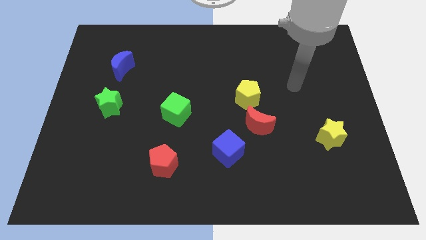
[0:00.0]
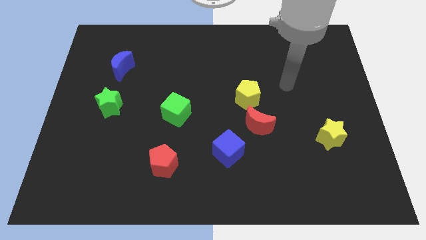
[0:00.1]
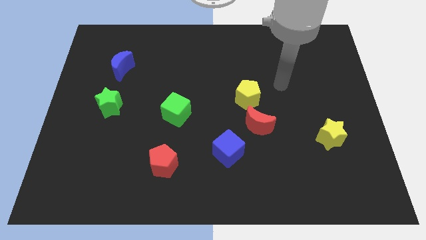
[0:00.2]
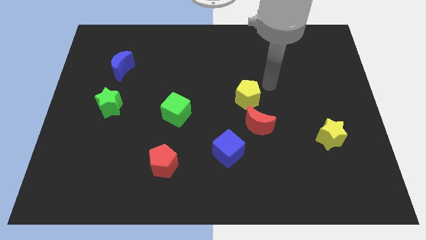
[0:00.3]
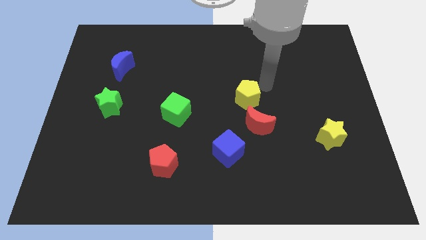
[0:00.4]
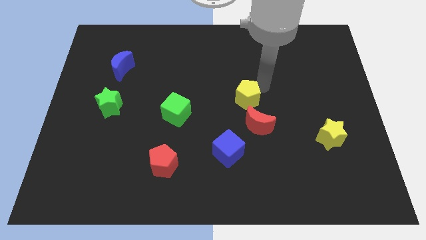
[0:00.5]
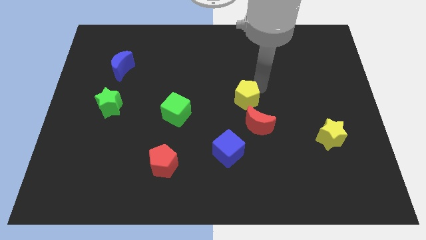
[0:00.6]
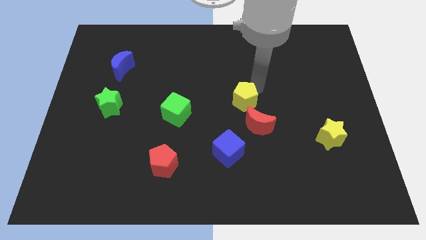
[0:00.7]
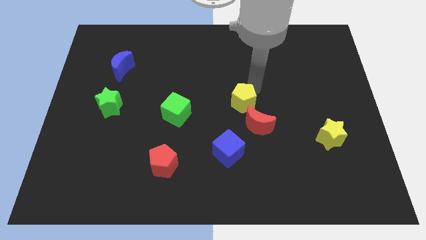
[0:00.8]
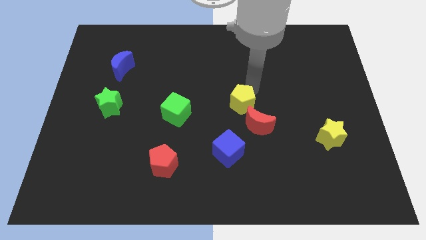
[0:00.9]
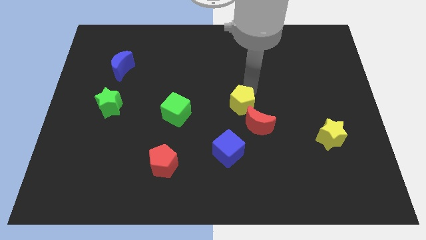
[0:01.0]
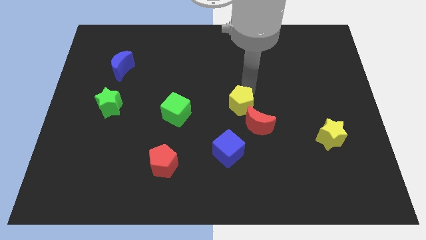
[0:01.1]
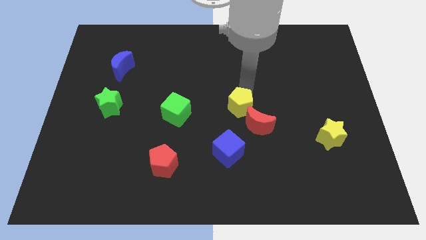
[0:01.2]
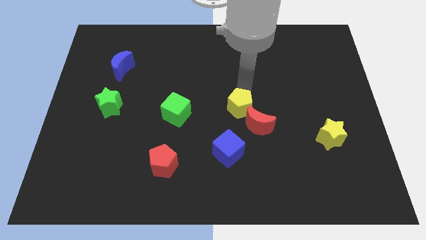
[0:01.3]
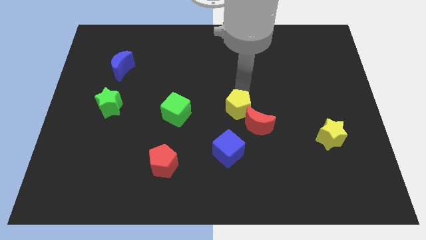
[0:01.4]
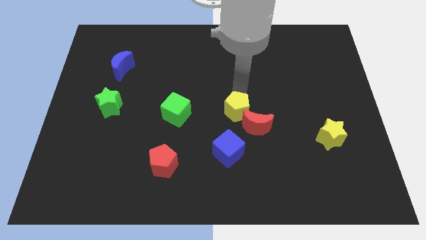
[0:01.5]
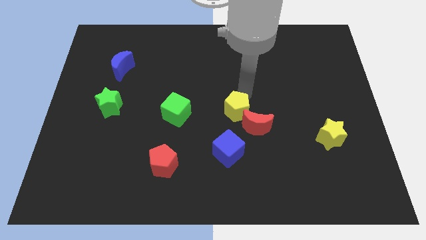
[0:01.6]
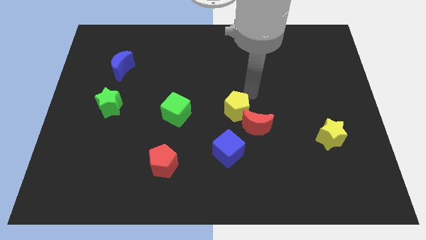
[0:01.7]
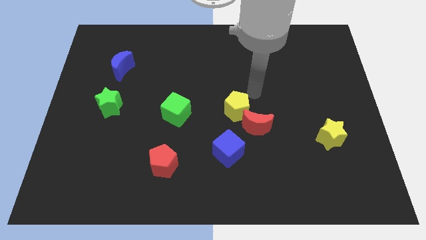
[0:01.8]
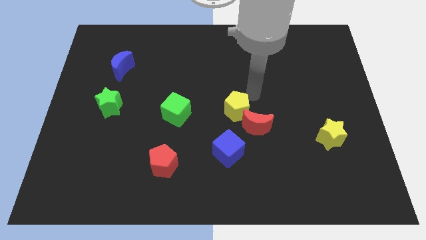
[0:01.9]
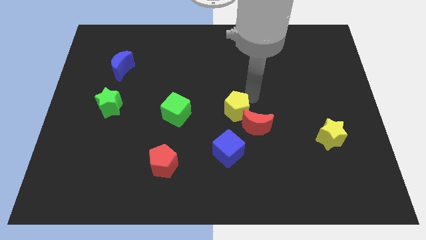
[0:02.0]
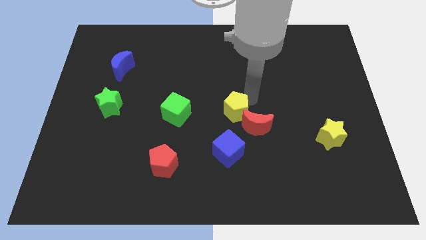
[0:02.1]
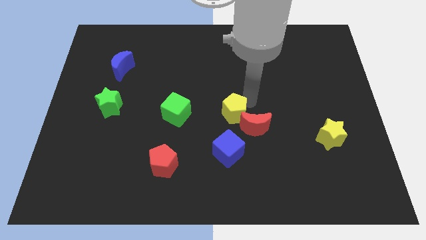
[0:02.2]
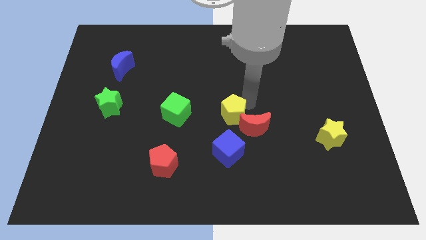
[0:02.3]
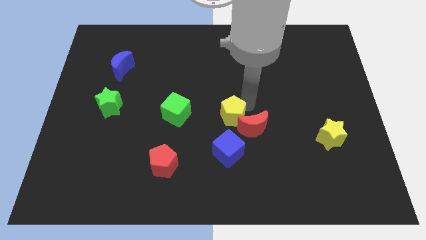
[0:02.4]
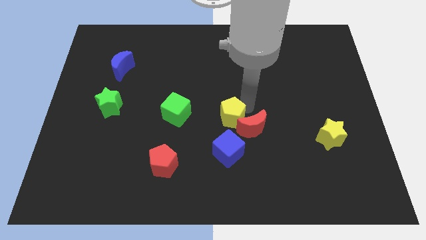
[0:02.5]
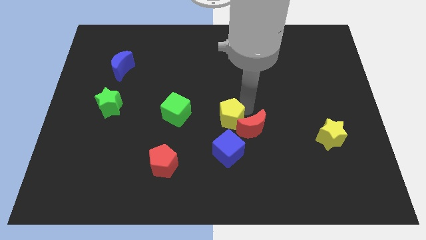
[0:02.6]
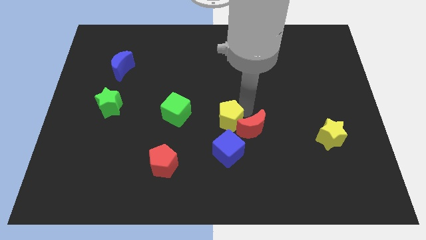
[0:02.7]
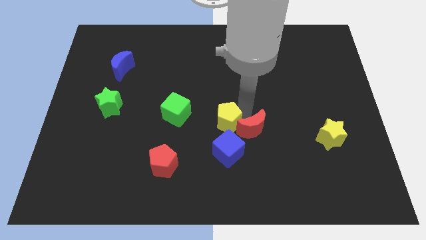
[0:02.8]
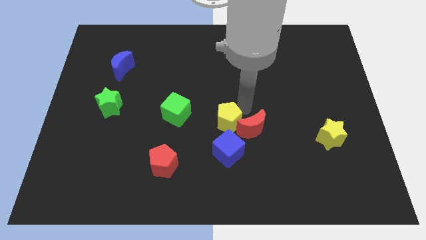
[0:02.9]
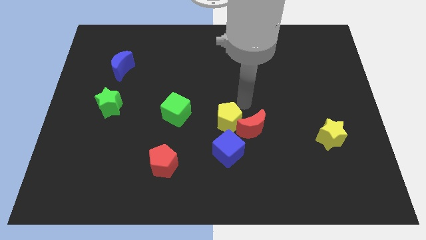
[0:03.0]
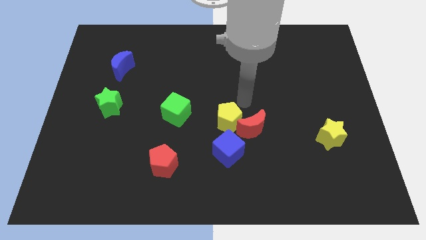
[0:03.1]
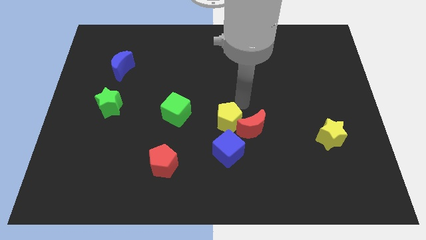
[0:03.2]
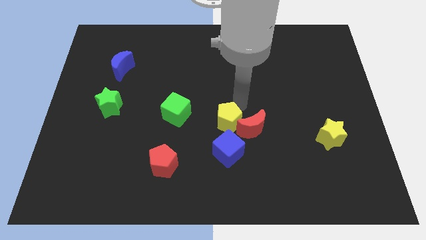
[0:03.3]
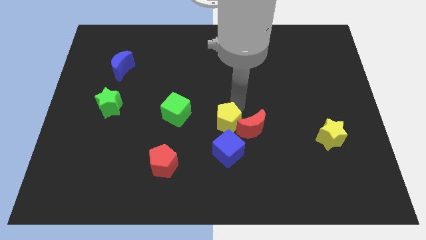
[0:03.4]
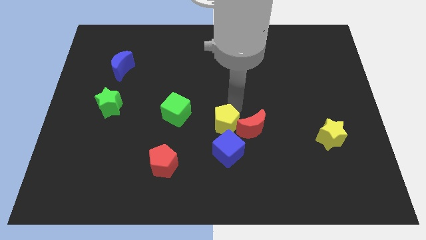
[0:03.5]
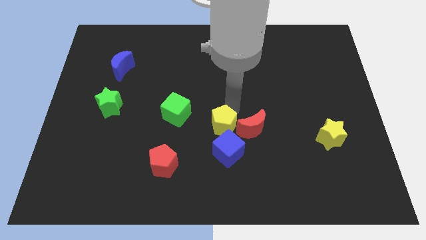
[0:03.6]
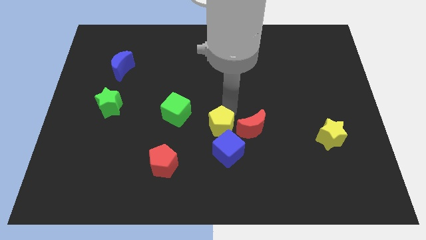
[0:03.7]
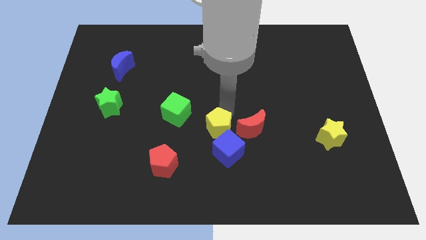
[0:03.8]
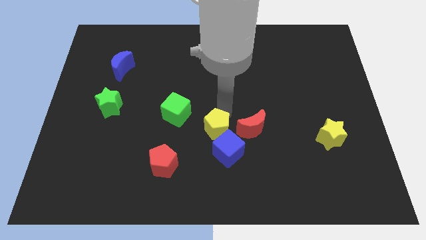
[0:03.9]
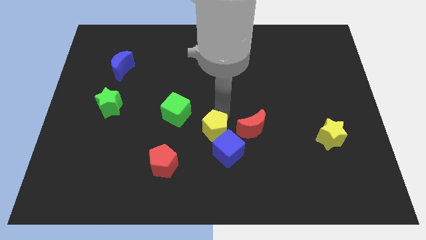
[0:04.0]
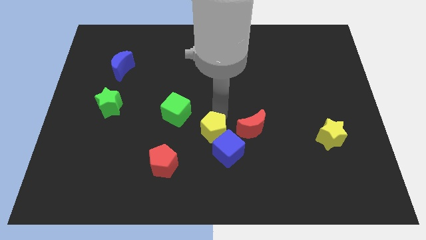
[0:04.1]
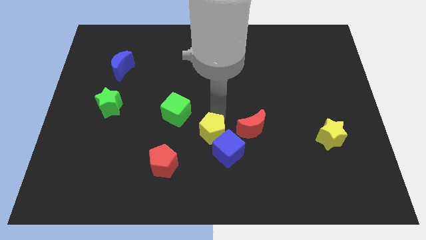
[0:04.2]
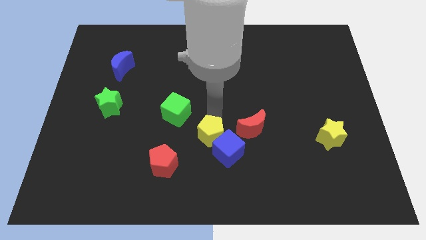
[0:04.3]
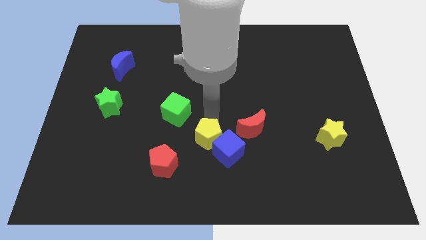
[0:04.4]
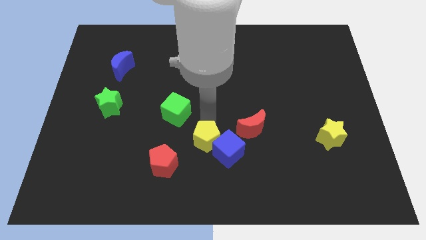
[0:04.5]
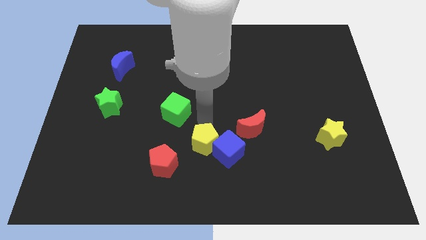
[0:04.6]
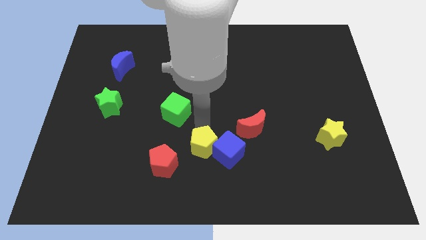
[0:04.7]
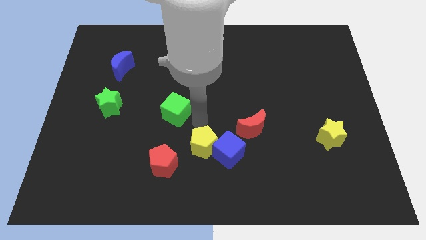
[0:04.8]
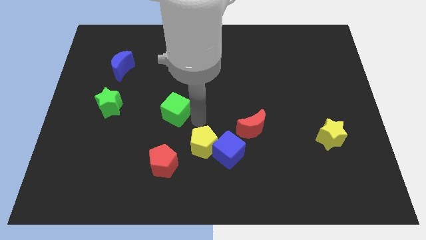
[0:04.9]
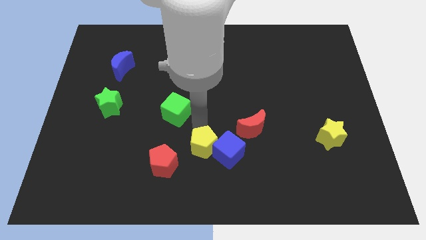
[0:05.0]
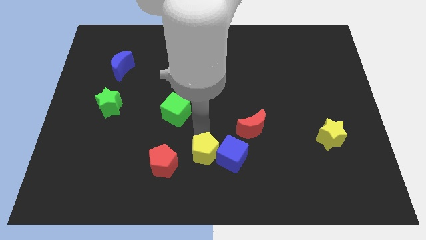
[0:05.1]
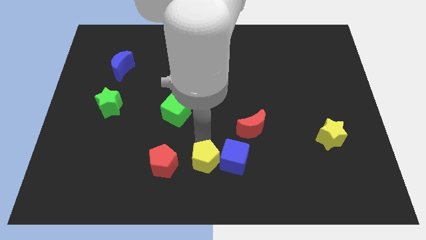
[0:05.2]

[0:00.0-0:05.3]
move the yellow pentagon to the bottom side

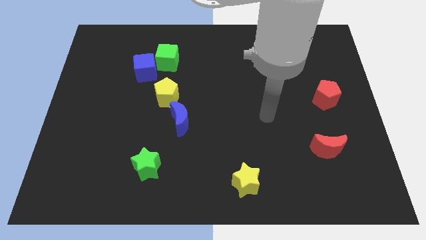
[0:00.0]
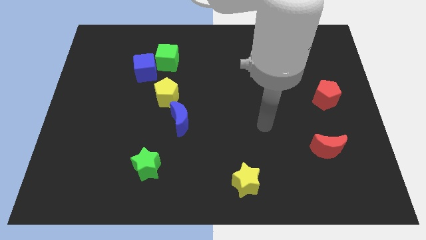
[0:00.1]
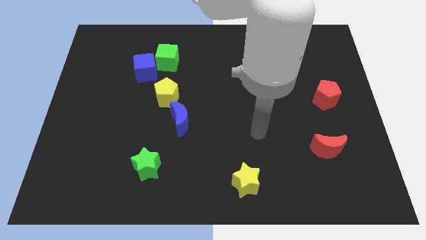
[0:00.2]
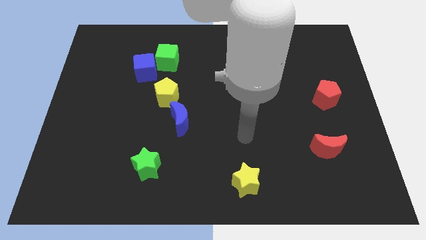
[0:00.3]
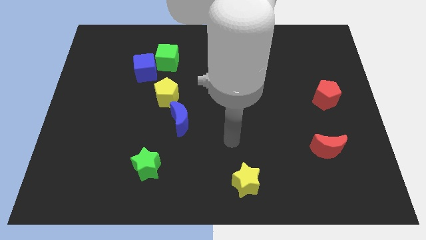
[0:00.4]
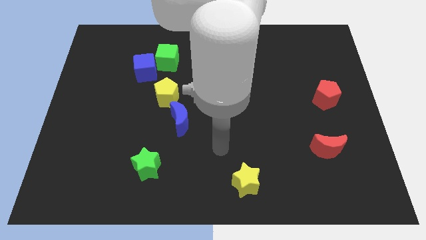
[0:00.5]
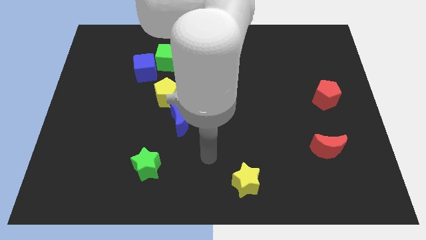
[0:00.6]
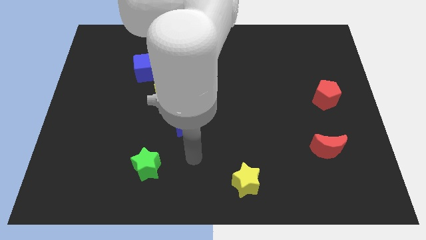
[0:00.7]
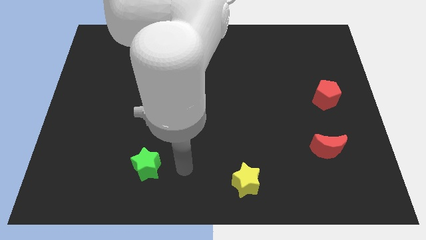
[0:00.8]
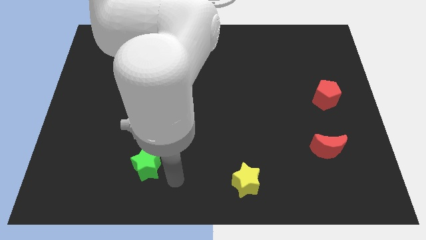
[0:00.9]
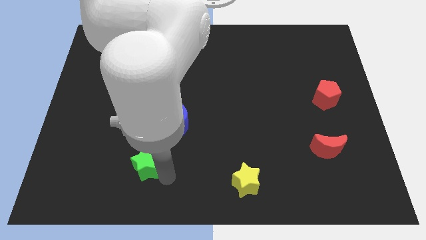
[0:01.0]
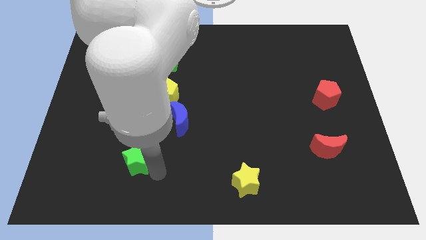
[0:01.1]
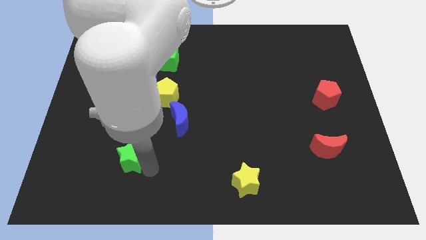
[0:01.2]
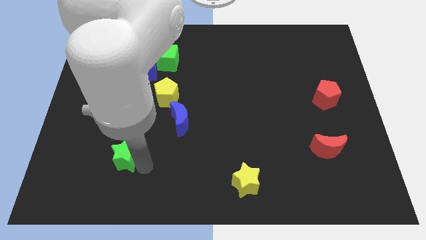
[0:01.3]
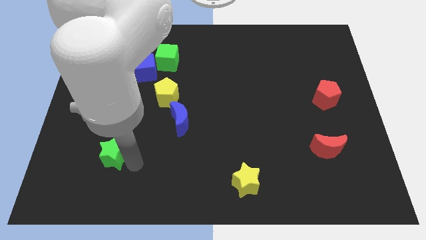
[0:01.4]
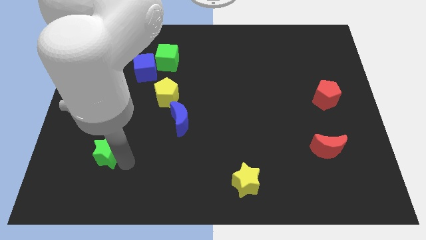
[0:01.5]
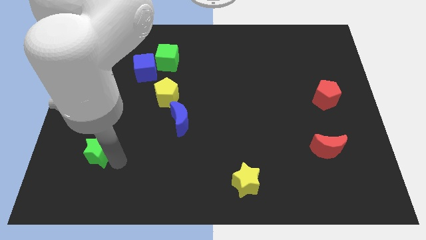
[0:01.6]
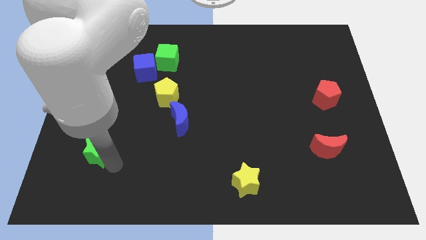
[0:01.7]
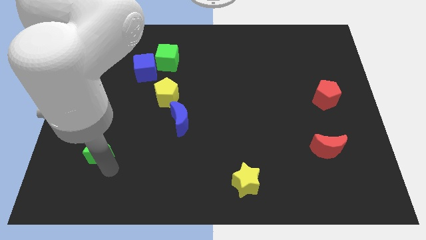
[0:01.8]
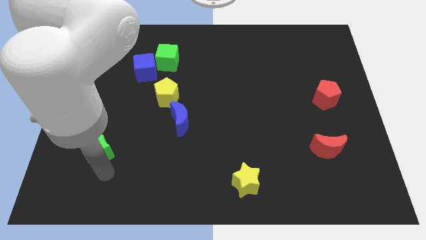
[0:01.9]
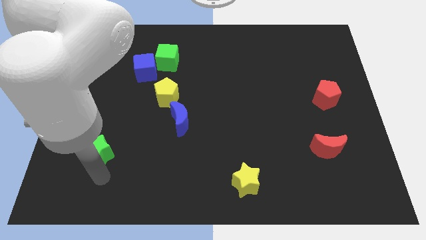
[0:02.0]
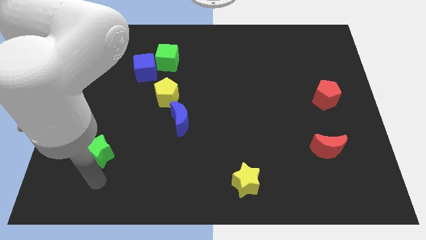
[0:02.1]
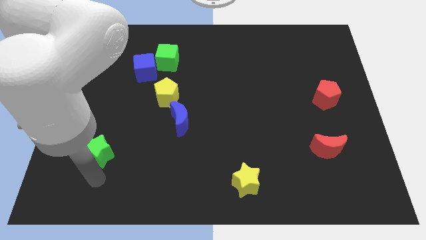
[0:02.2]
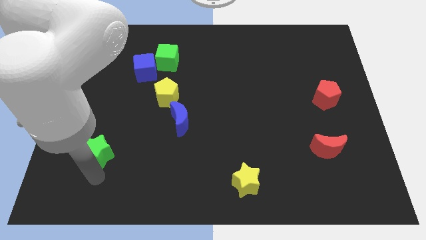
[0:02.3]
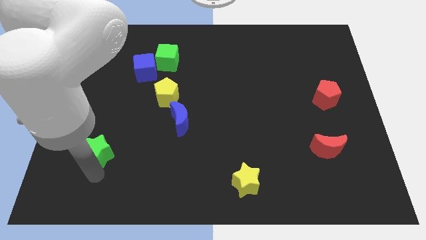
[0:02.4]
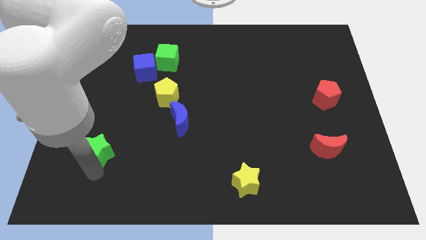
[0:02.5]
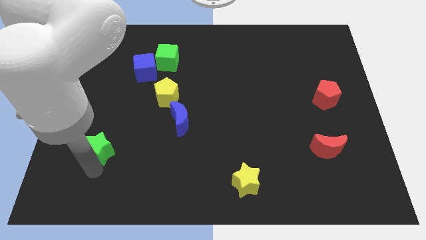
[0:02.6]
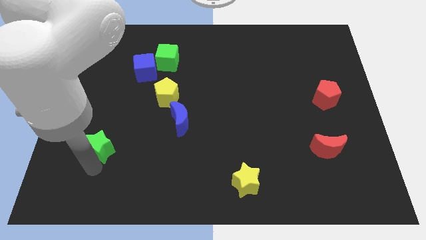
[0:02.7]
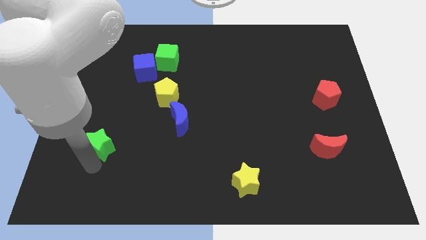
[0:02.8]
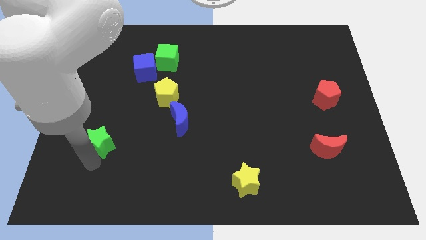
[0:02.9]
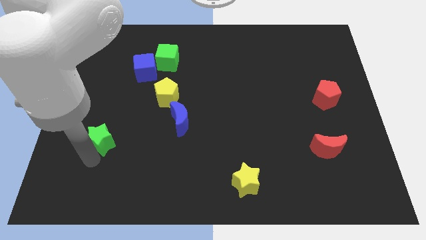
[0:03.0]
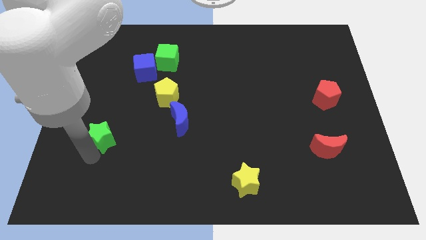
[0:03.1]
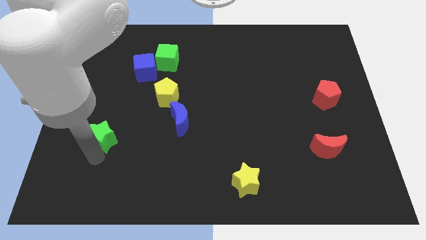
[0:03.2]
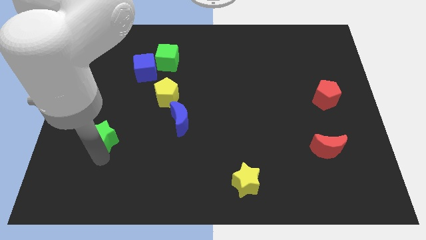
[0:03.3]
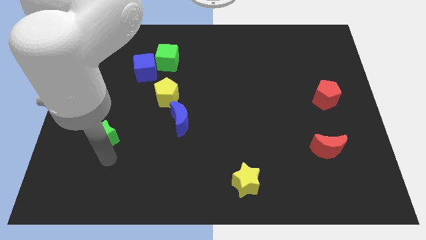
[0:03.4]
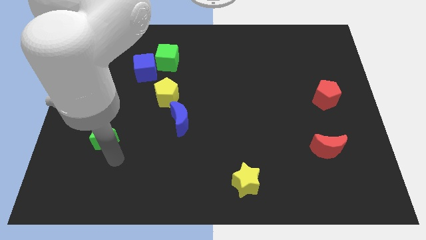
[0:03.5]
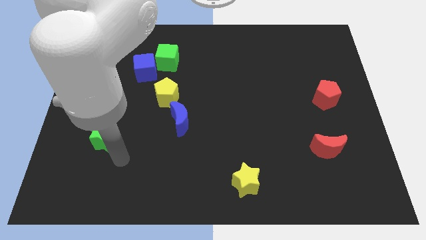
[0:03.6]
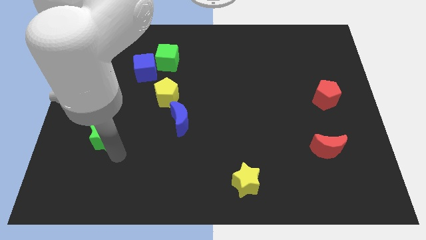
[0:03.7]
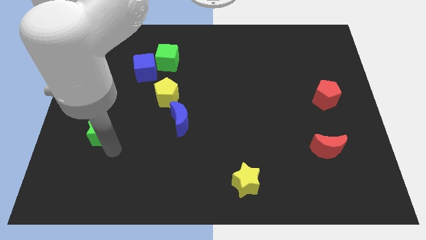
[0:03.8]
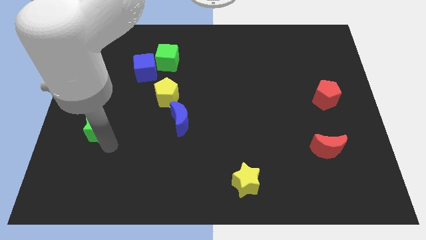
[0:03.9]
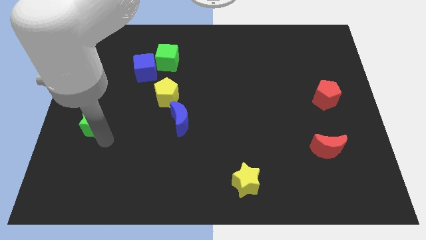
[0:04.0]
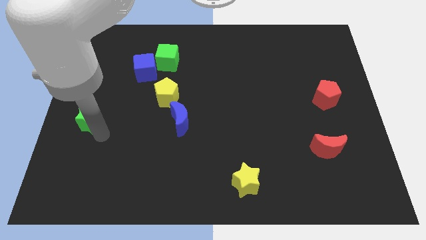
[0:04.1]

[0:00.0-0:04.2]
move the green star to the left side
